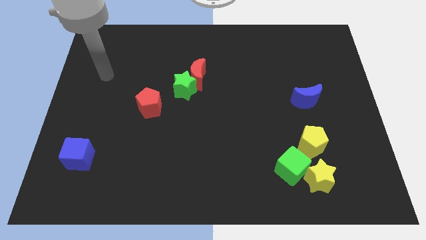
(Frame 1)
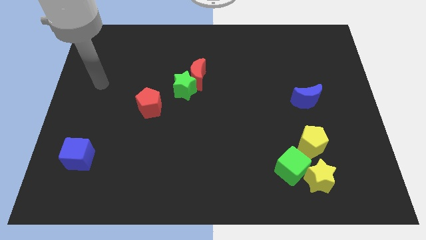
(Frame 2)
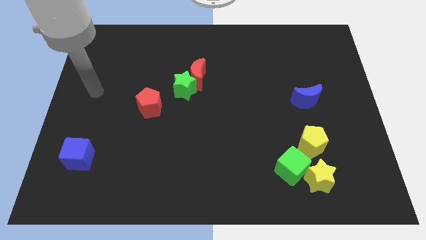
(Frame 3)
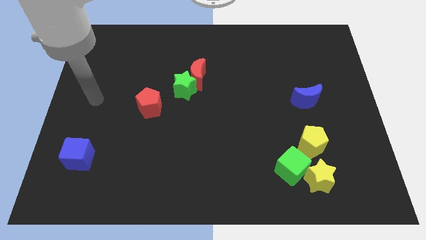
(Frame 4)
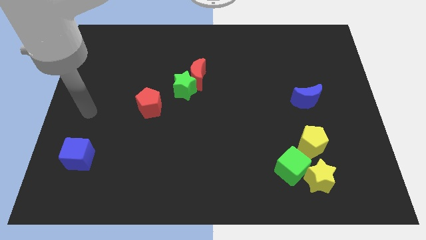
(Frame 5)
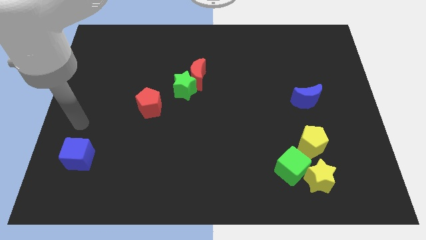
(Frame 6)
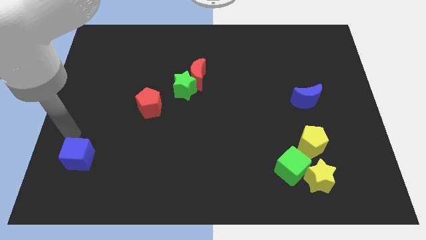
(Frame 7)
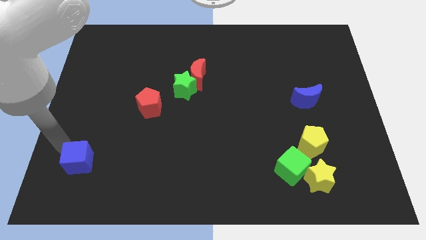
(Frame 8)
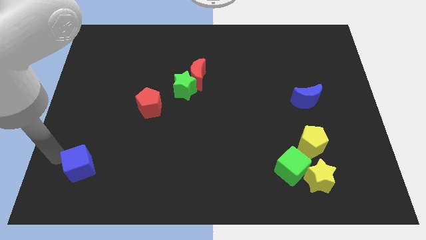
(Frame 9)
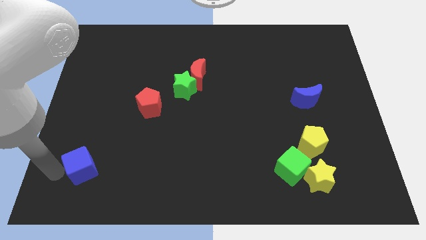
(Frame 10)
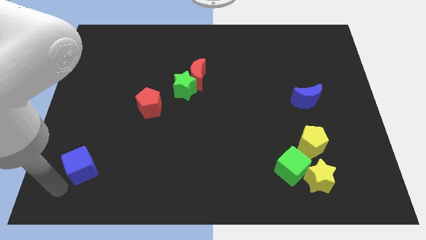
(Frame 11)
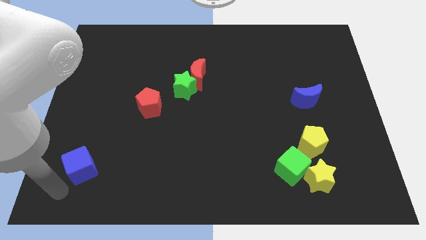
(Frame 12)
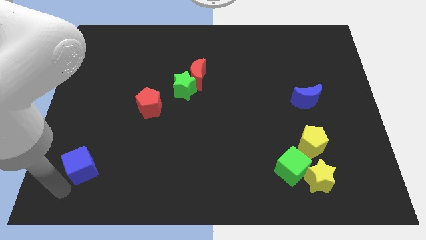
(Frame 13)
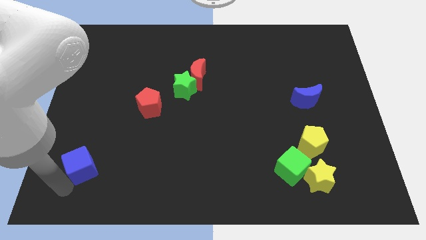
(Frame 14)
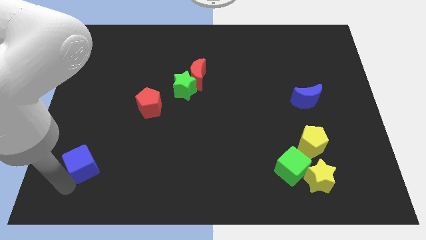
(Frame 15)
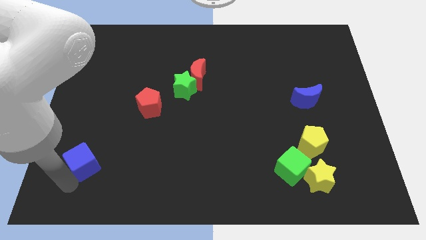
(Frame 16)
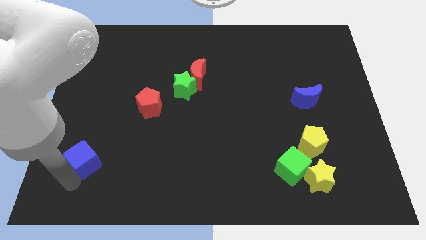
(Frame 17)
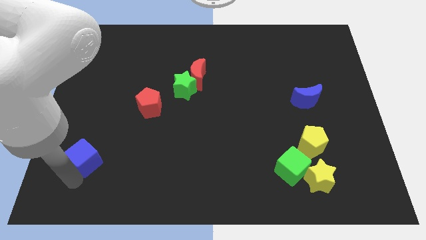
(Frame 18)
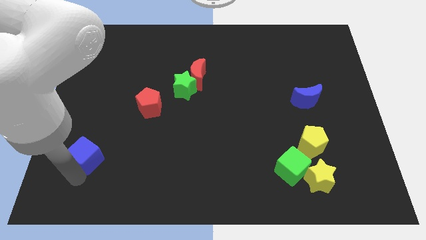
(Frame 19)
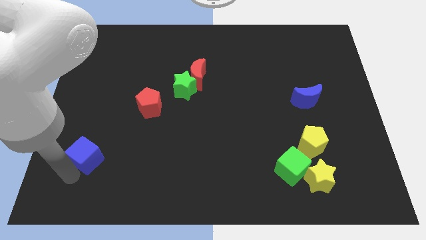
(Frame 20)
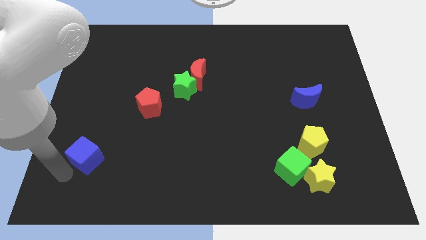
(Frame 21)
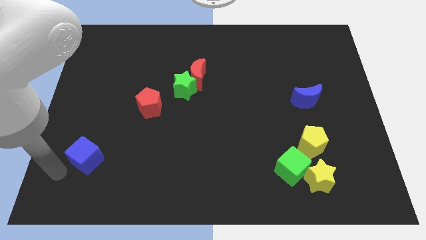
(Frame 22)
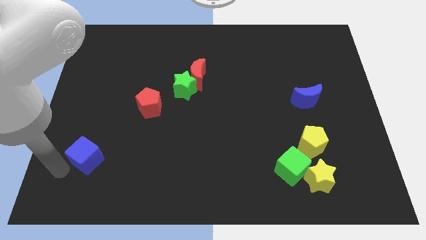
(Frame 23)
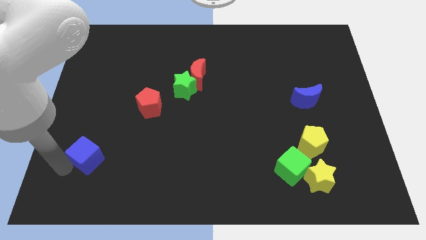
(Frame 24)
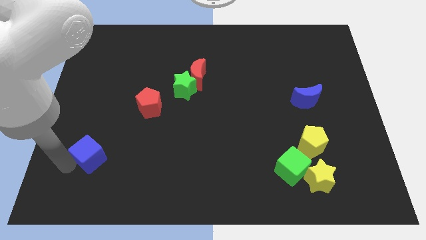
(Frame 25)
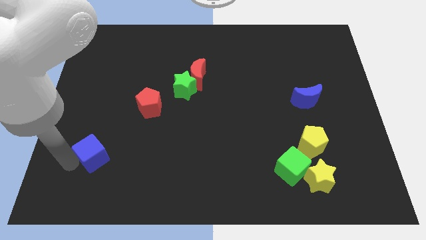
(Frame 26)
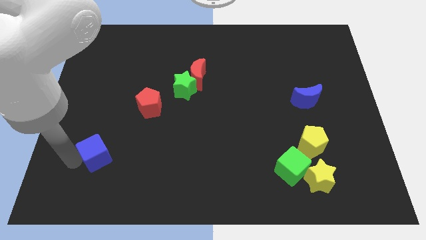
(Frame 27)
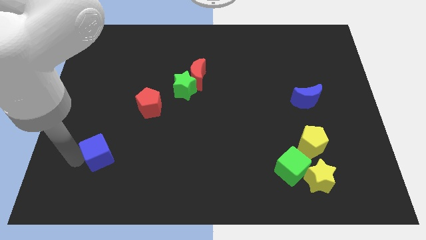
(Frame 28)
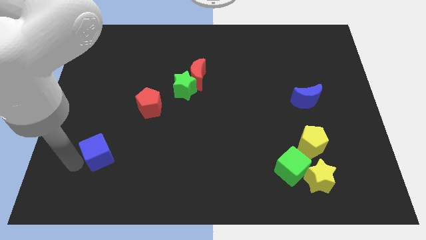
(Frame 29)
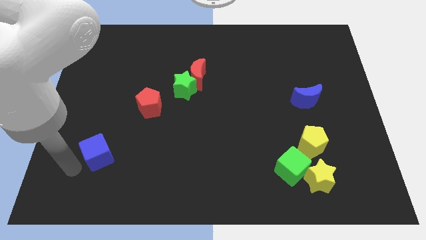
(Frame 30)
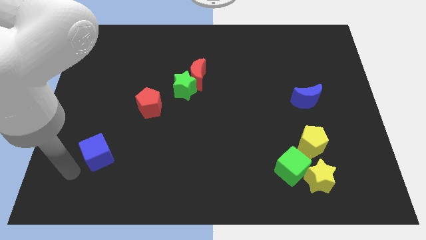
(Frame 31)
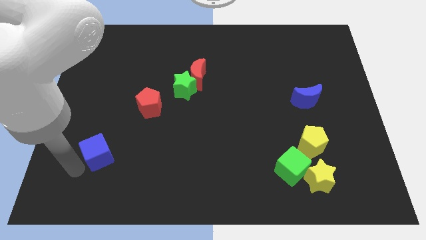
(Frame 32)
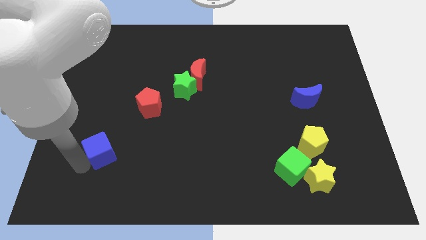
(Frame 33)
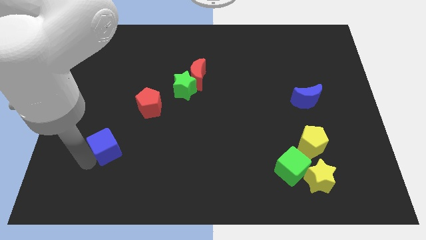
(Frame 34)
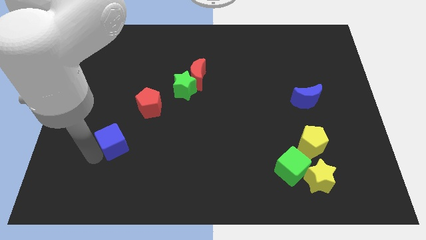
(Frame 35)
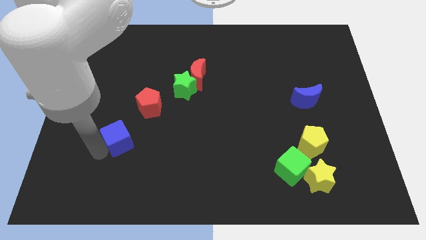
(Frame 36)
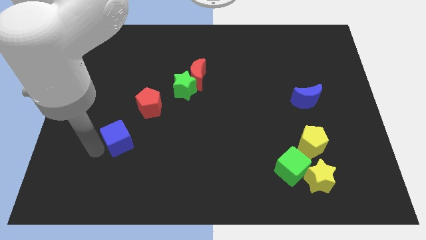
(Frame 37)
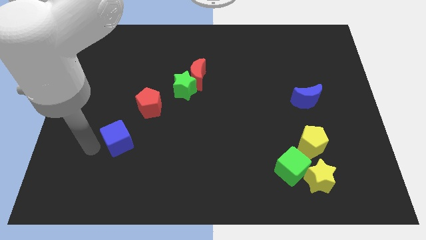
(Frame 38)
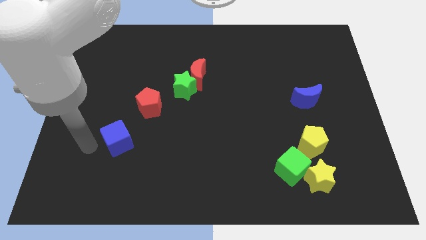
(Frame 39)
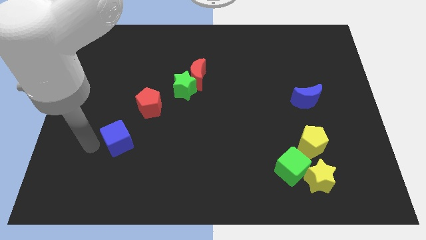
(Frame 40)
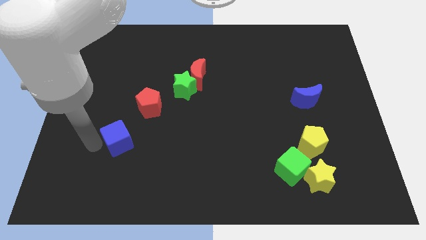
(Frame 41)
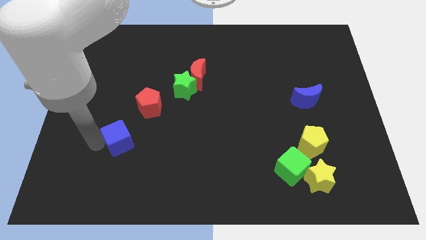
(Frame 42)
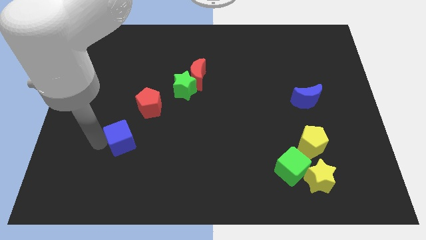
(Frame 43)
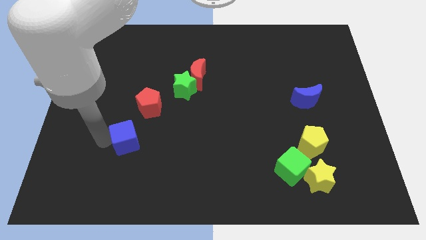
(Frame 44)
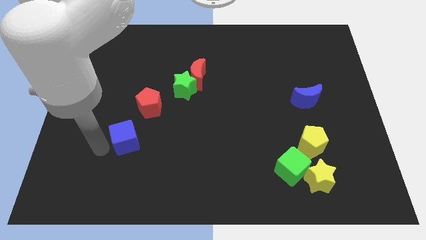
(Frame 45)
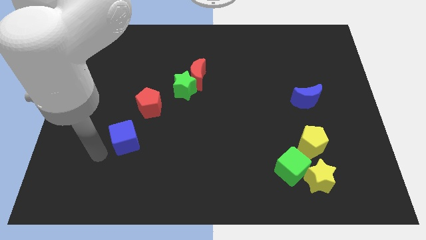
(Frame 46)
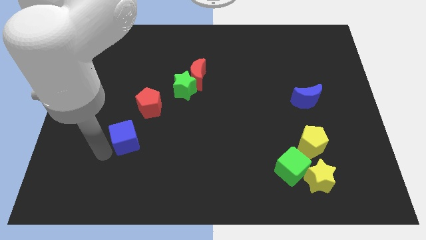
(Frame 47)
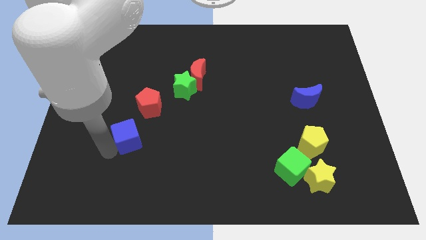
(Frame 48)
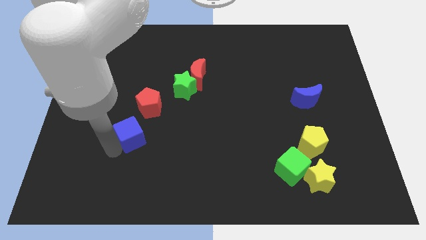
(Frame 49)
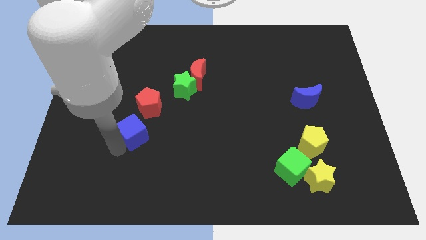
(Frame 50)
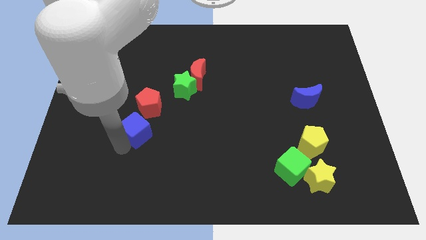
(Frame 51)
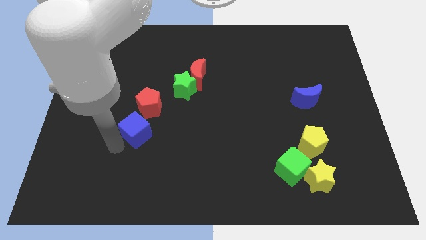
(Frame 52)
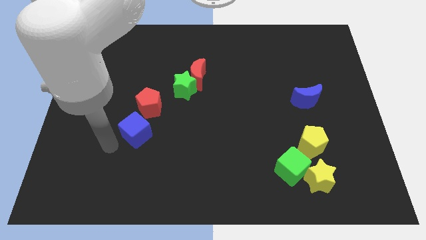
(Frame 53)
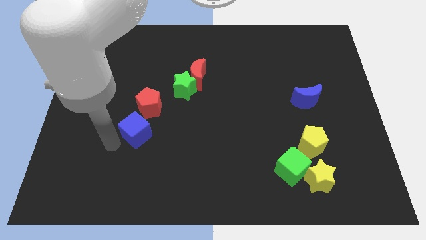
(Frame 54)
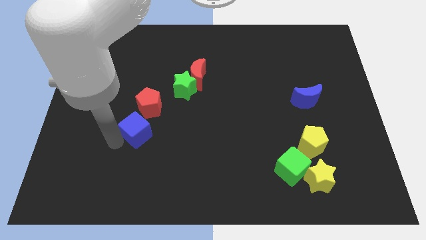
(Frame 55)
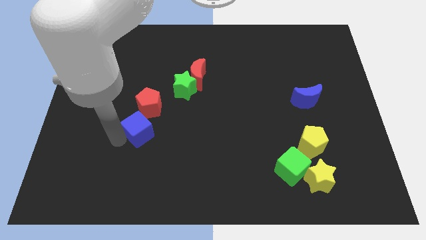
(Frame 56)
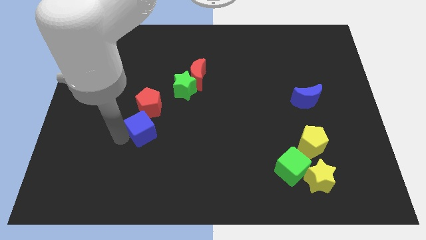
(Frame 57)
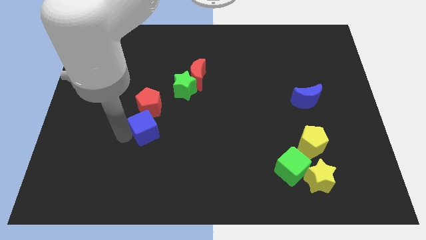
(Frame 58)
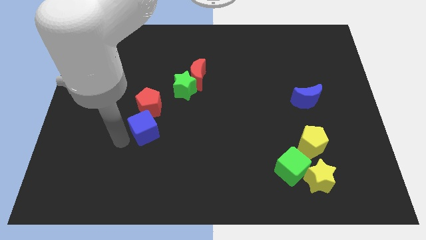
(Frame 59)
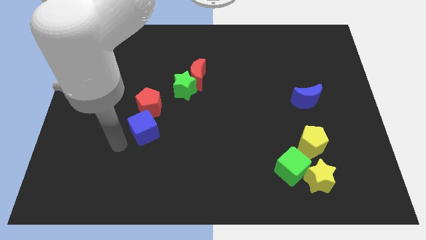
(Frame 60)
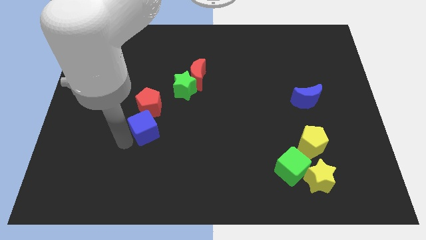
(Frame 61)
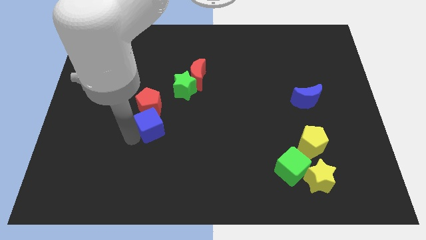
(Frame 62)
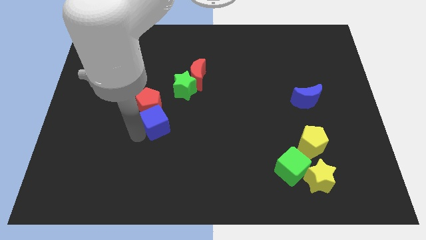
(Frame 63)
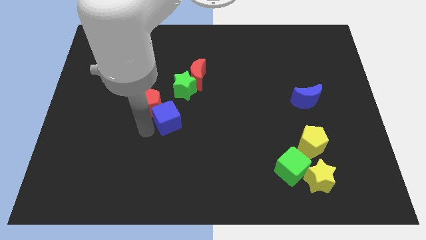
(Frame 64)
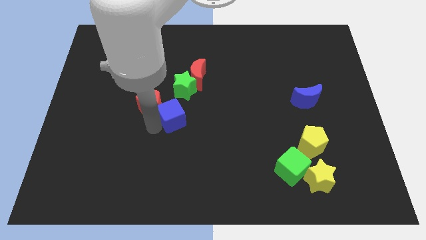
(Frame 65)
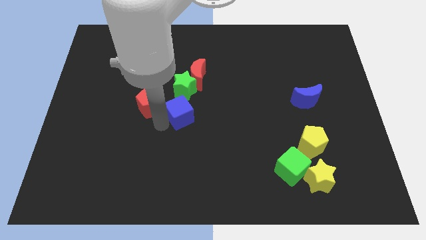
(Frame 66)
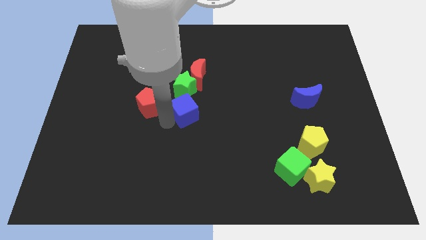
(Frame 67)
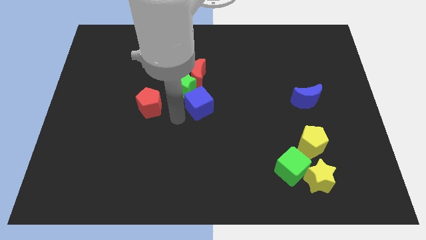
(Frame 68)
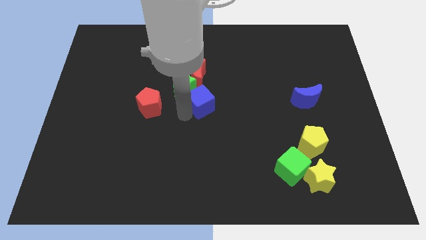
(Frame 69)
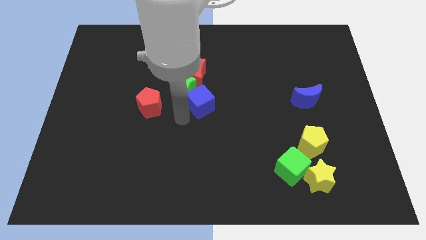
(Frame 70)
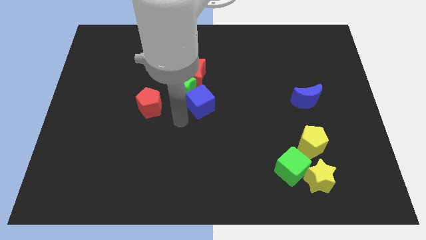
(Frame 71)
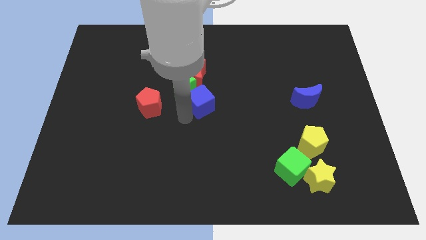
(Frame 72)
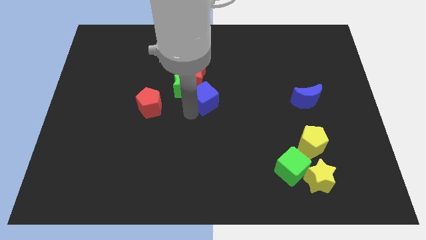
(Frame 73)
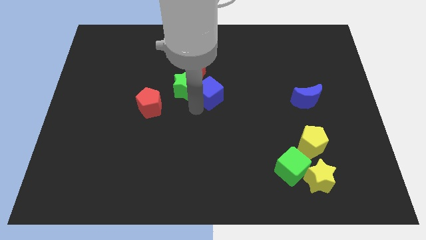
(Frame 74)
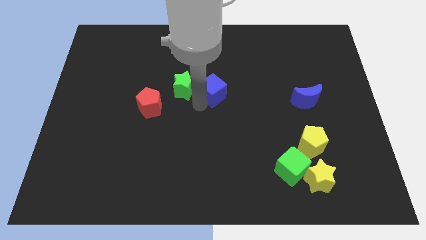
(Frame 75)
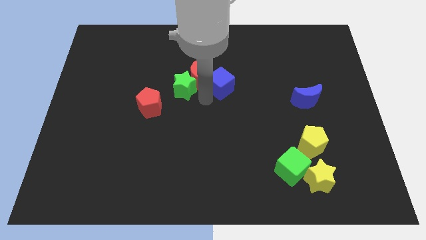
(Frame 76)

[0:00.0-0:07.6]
put the blue cube right of the red moon

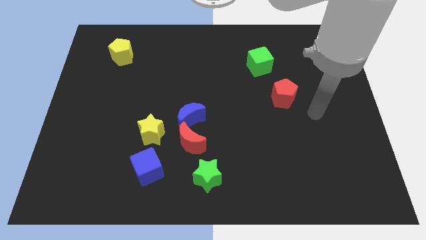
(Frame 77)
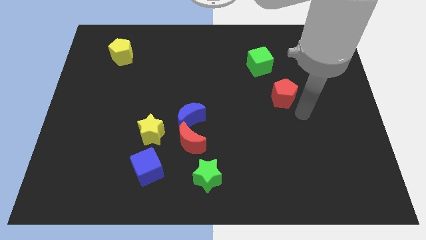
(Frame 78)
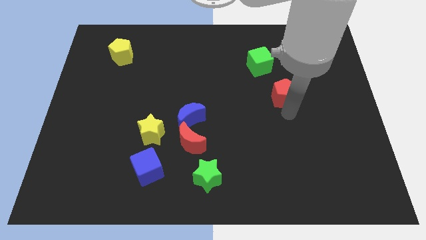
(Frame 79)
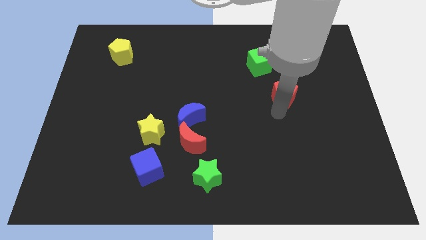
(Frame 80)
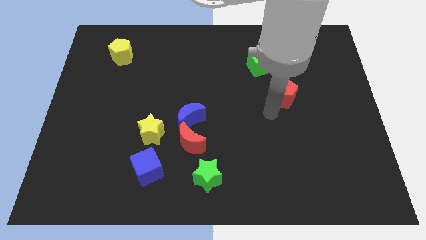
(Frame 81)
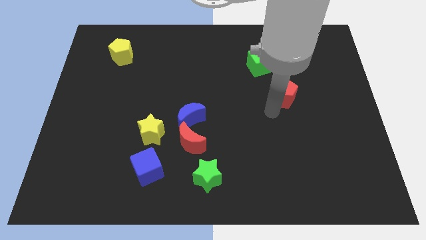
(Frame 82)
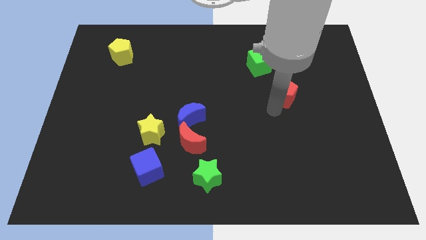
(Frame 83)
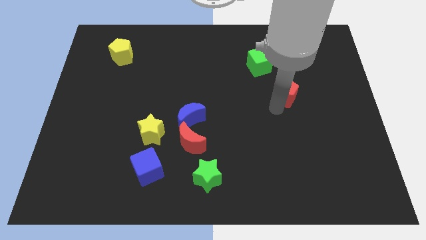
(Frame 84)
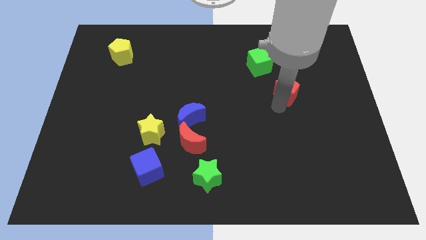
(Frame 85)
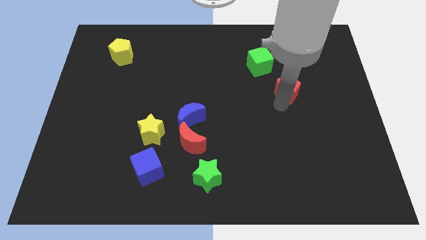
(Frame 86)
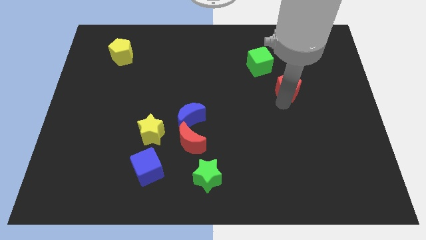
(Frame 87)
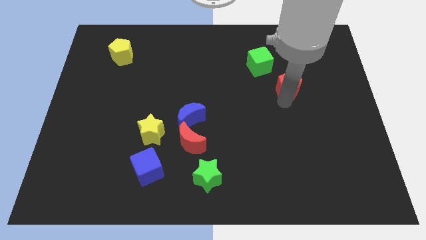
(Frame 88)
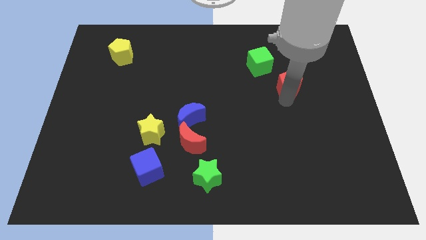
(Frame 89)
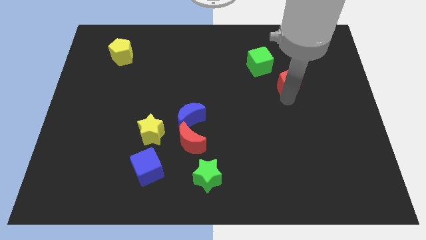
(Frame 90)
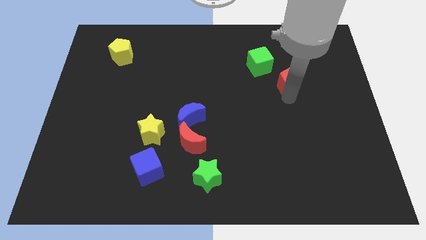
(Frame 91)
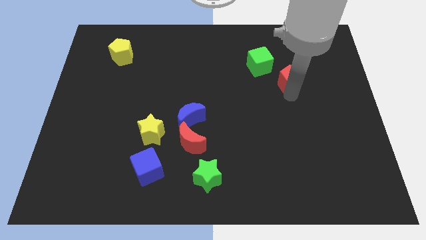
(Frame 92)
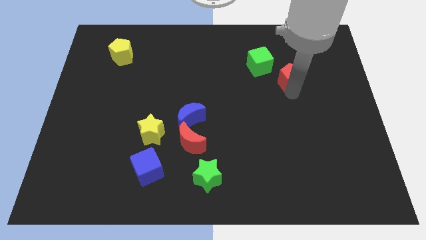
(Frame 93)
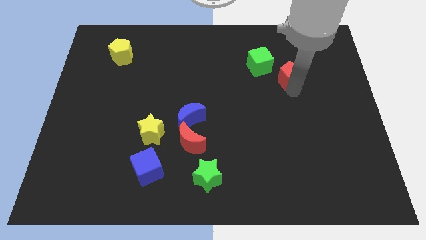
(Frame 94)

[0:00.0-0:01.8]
push the red pentagon just right of the green cube
